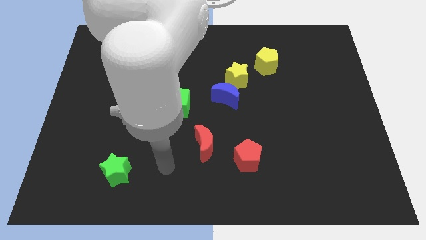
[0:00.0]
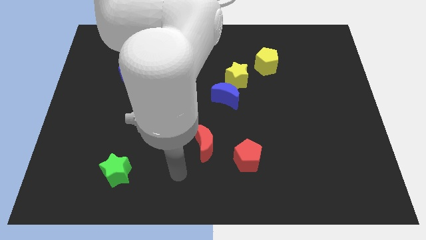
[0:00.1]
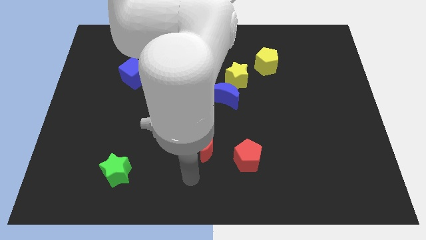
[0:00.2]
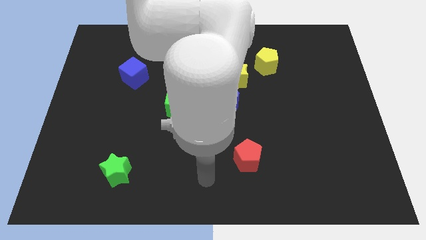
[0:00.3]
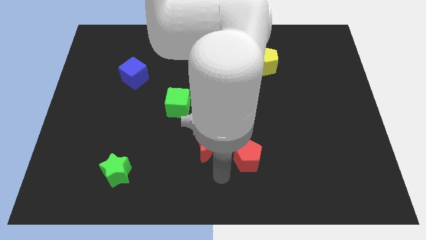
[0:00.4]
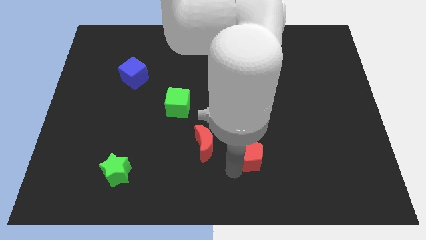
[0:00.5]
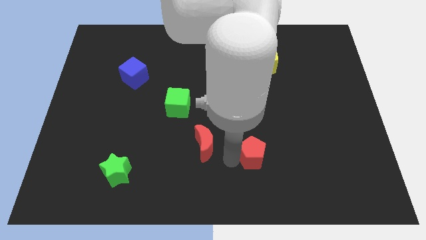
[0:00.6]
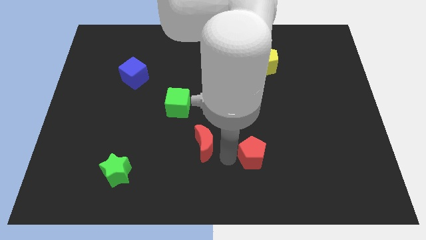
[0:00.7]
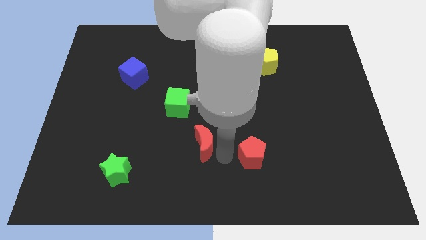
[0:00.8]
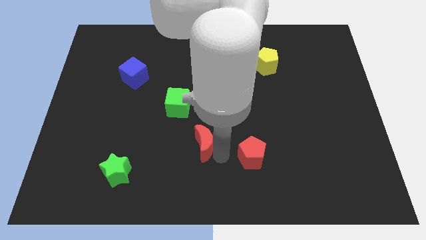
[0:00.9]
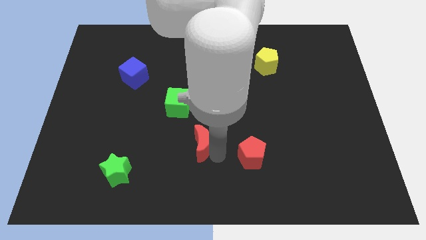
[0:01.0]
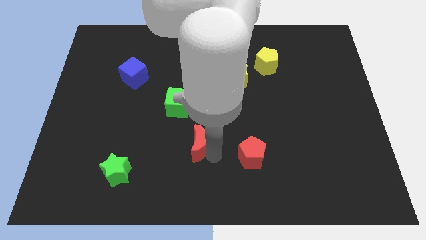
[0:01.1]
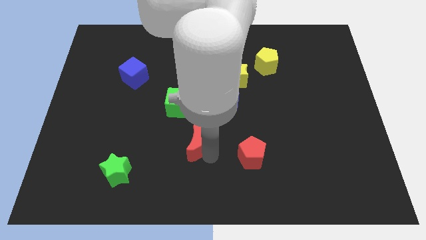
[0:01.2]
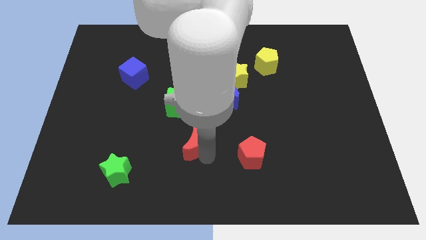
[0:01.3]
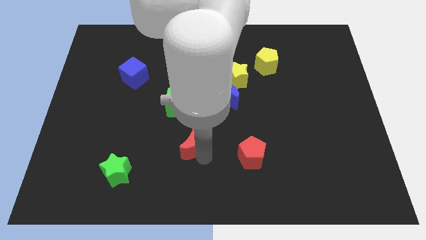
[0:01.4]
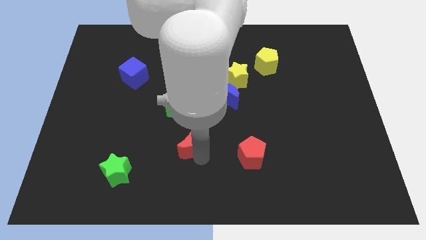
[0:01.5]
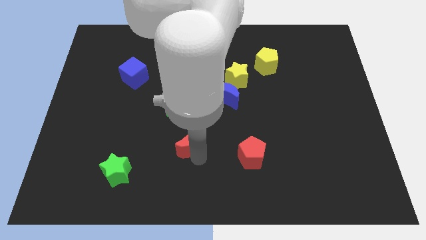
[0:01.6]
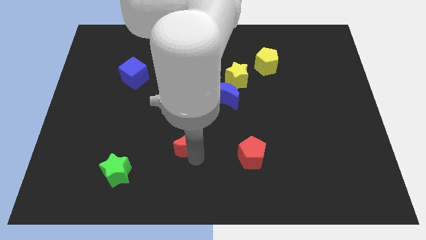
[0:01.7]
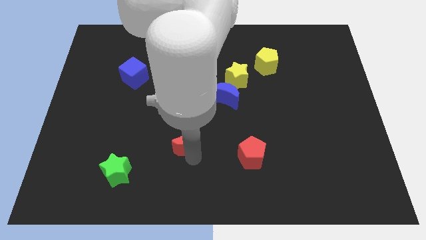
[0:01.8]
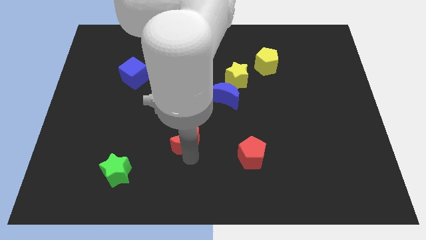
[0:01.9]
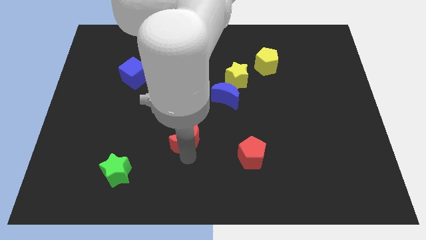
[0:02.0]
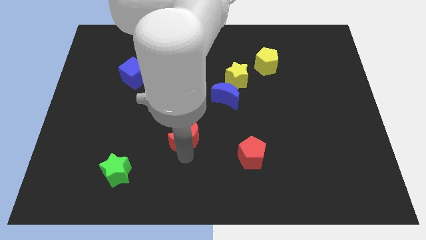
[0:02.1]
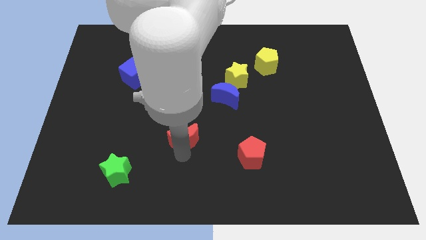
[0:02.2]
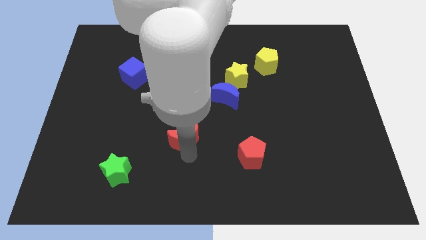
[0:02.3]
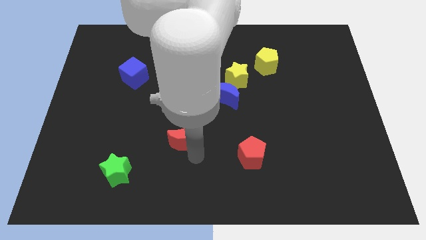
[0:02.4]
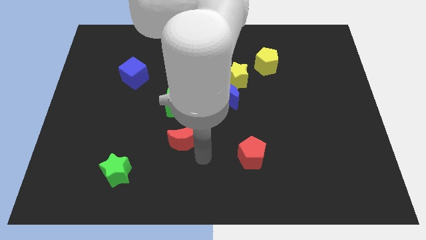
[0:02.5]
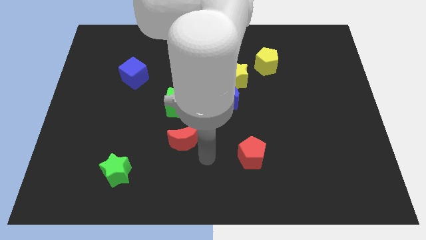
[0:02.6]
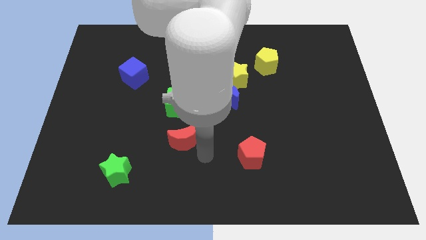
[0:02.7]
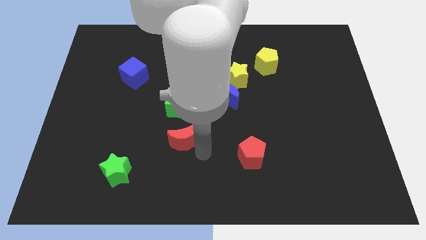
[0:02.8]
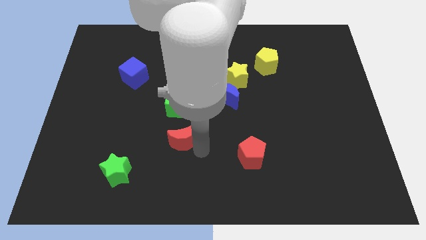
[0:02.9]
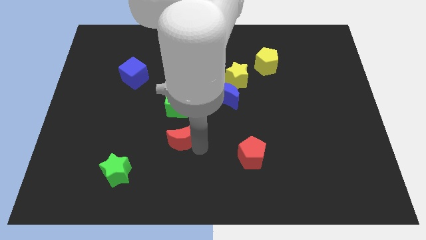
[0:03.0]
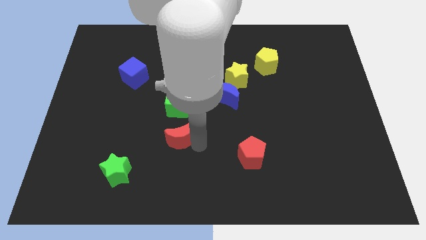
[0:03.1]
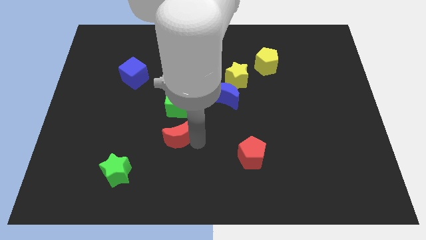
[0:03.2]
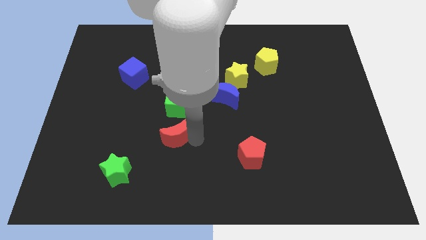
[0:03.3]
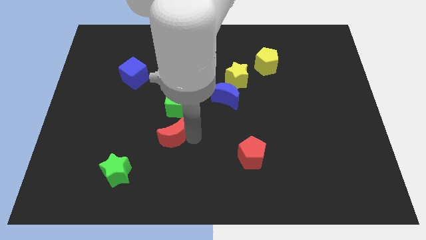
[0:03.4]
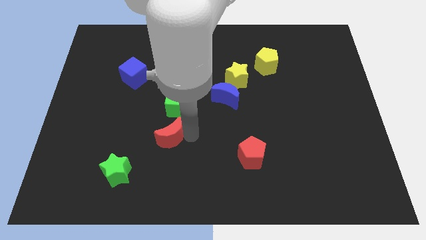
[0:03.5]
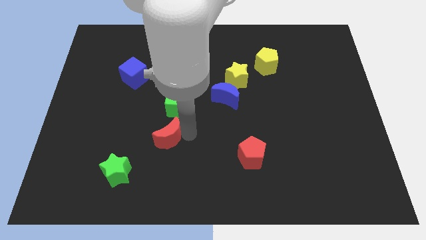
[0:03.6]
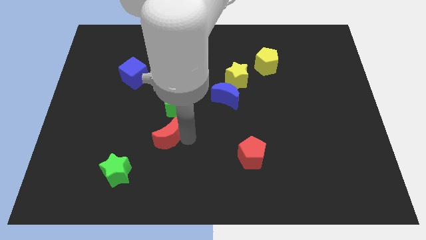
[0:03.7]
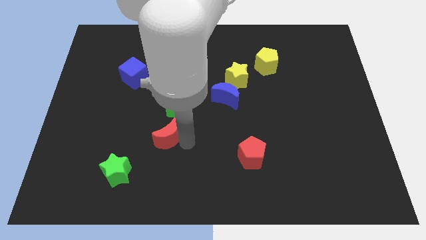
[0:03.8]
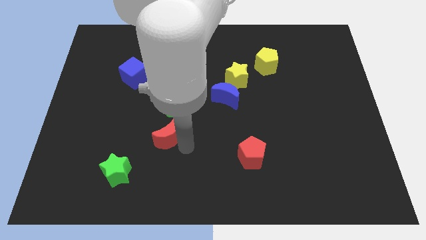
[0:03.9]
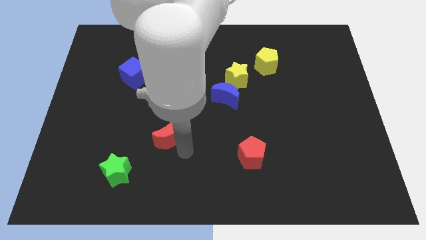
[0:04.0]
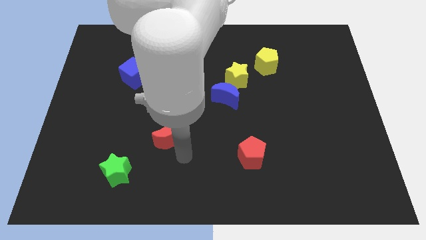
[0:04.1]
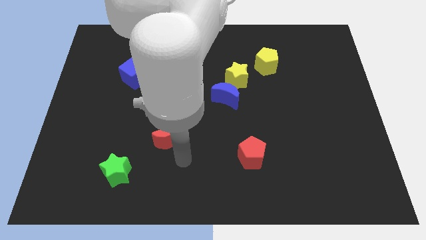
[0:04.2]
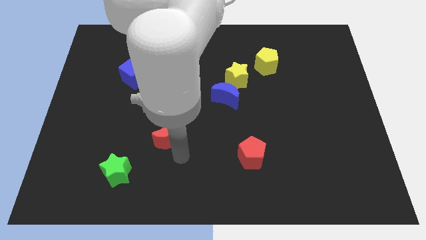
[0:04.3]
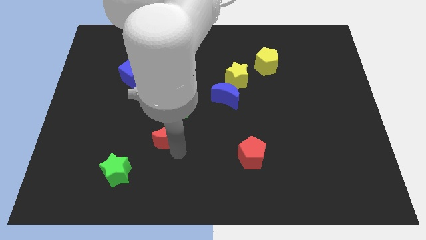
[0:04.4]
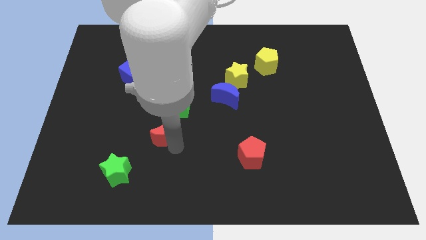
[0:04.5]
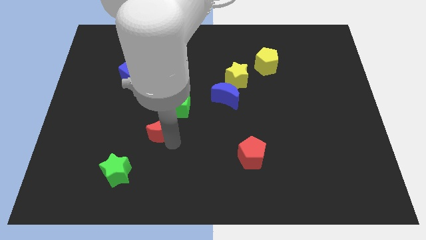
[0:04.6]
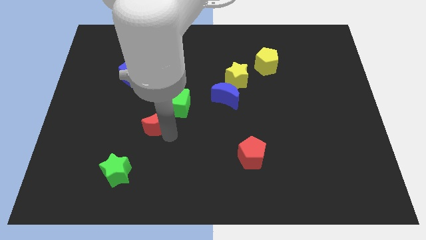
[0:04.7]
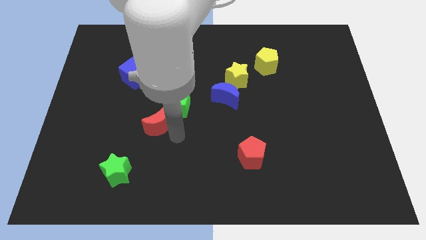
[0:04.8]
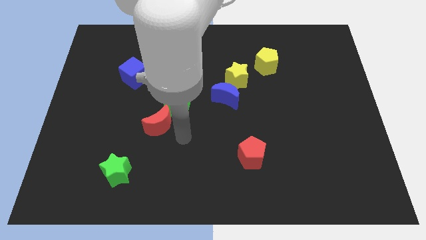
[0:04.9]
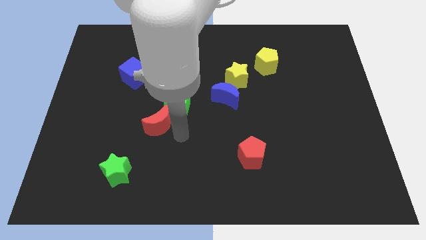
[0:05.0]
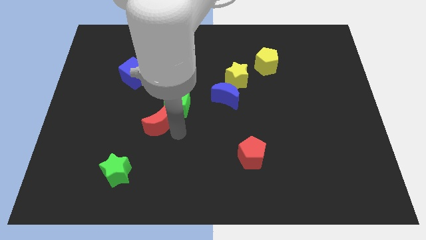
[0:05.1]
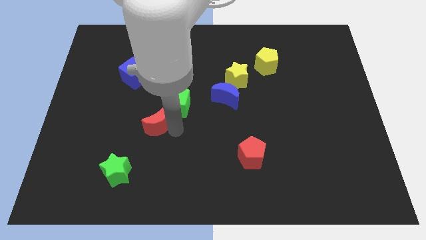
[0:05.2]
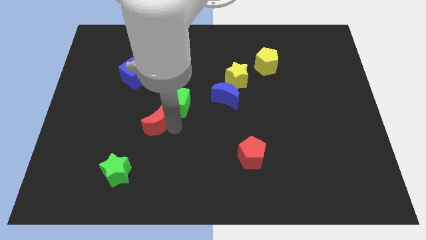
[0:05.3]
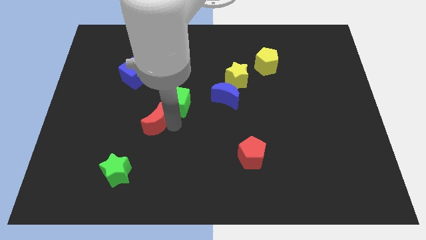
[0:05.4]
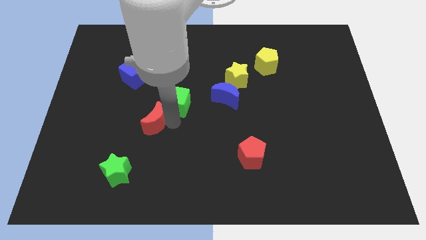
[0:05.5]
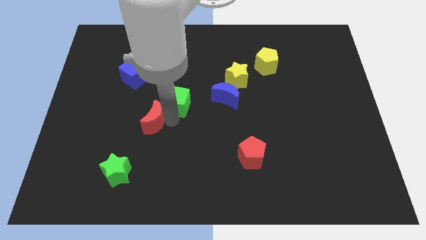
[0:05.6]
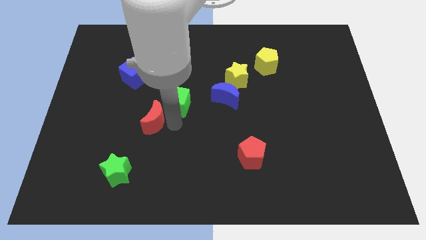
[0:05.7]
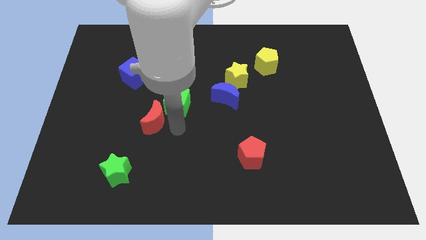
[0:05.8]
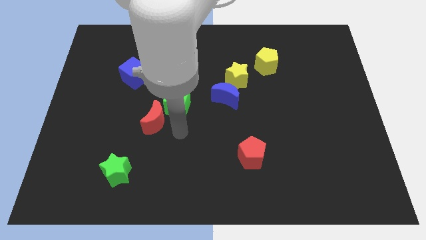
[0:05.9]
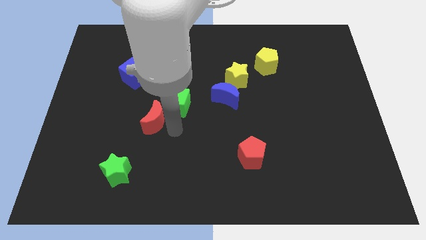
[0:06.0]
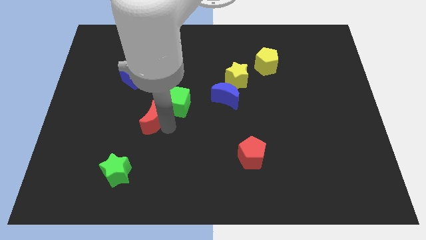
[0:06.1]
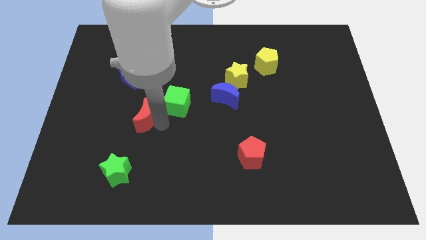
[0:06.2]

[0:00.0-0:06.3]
move the red moon to the bottom side of the blue cube

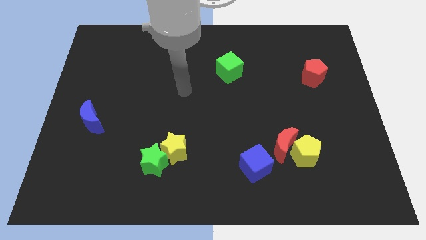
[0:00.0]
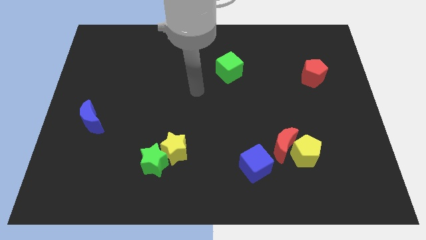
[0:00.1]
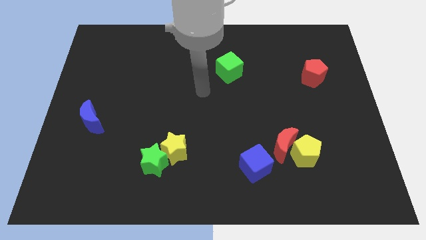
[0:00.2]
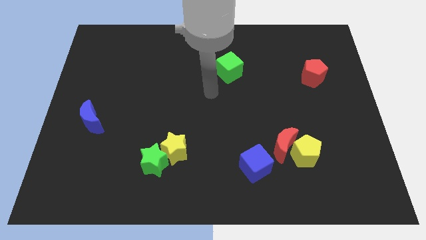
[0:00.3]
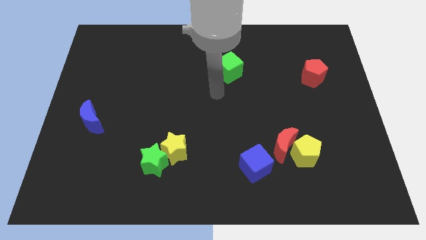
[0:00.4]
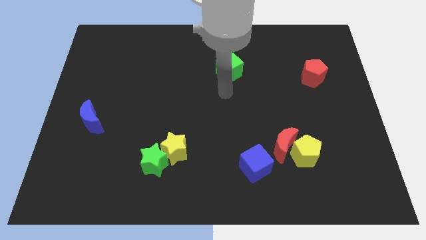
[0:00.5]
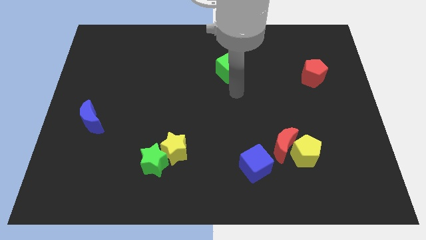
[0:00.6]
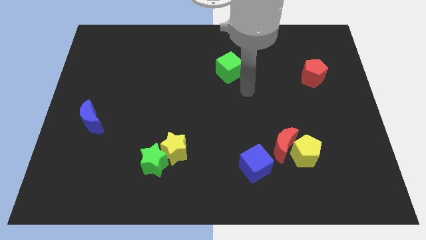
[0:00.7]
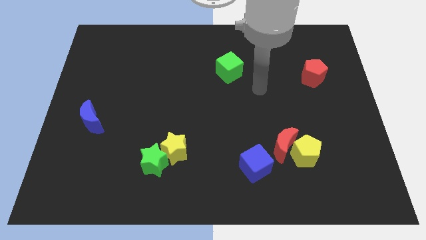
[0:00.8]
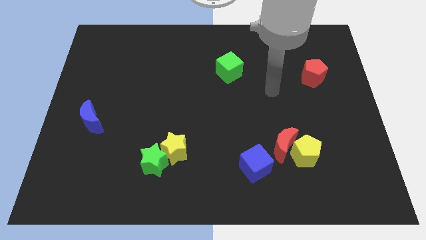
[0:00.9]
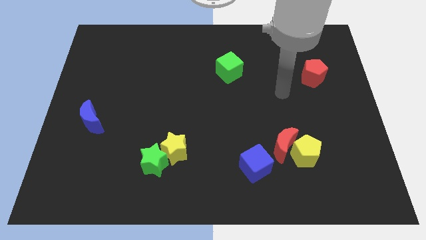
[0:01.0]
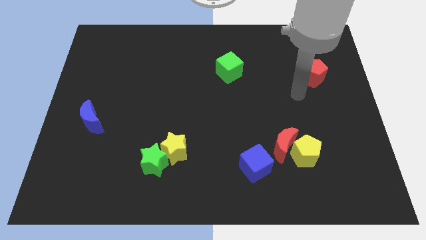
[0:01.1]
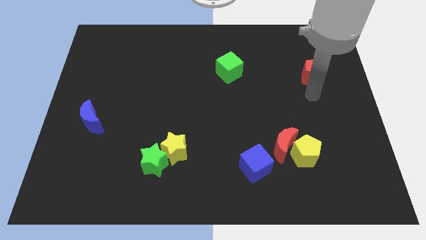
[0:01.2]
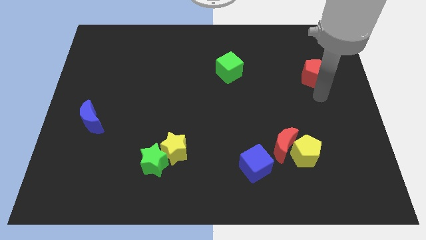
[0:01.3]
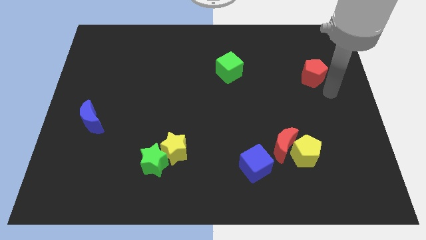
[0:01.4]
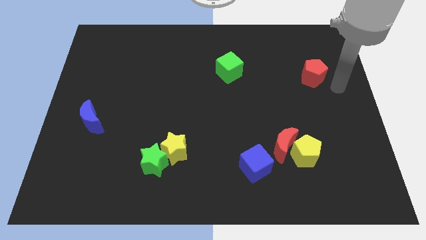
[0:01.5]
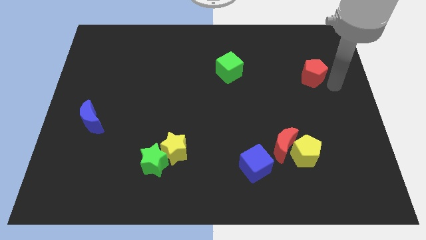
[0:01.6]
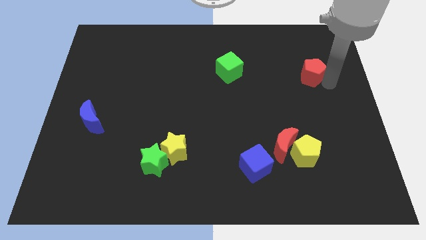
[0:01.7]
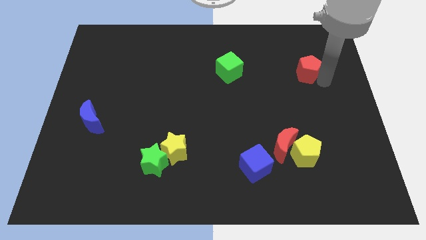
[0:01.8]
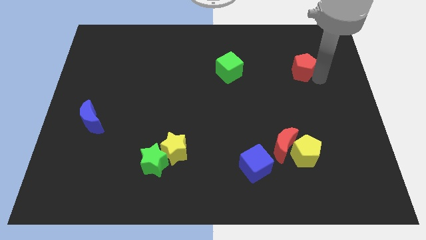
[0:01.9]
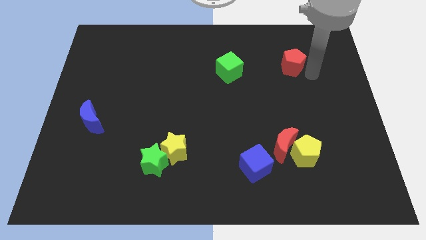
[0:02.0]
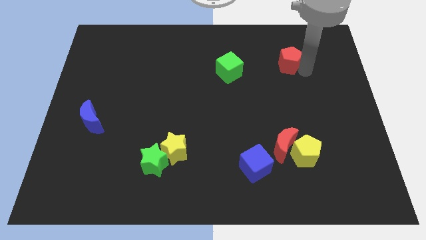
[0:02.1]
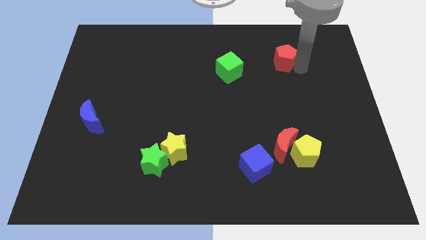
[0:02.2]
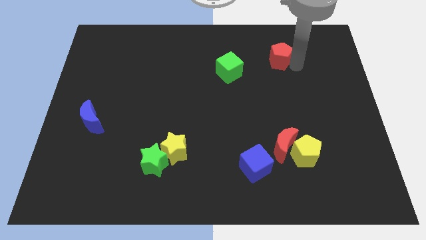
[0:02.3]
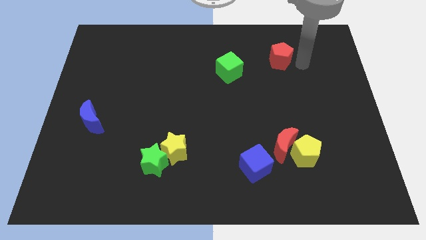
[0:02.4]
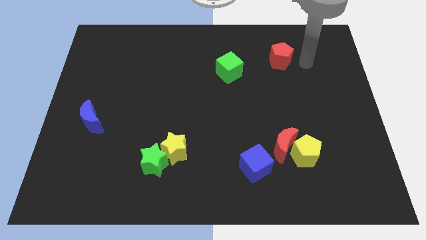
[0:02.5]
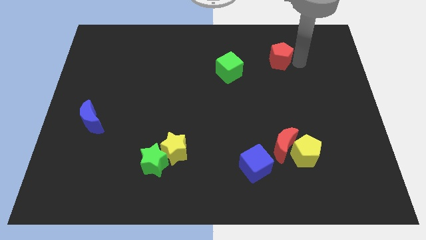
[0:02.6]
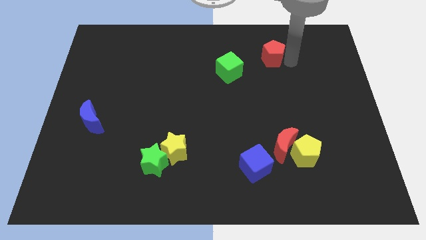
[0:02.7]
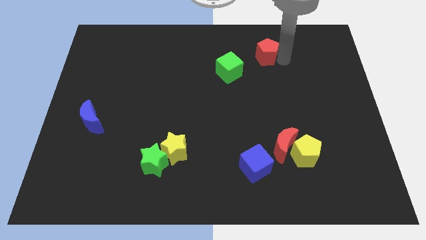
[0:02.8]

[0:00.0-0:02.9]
push the red pentagon diagonally up and to the right of the green cube
